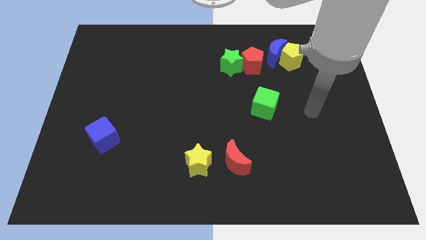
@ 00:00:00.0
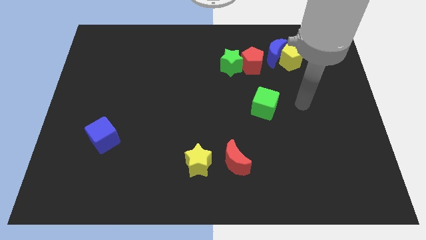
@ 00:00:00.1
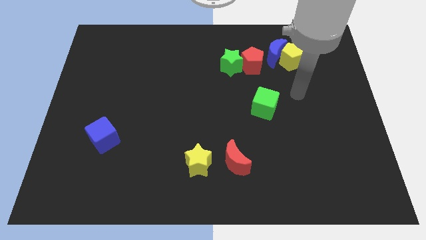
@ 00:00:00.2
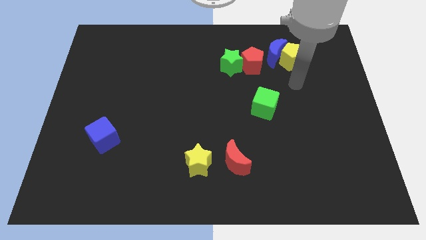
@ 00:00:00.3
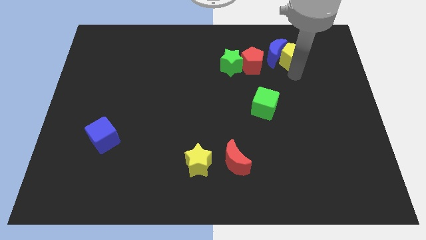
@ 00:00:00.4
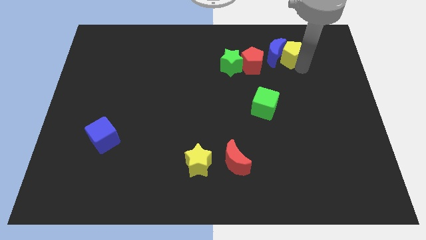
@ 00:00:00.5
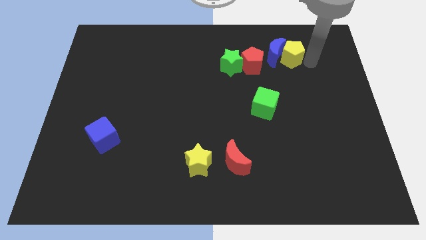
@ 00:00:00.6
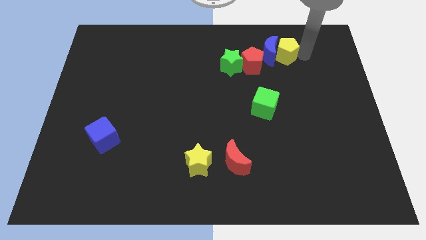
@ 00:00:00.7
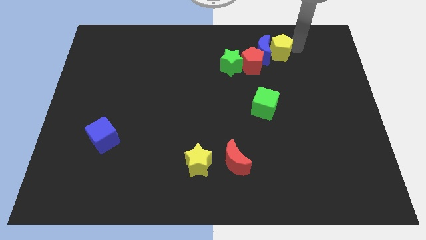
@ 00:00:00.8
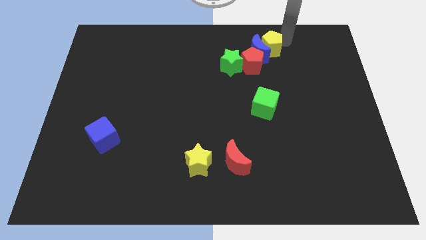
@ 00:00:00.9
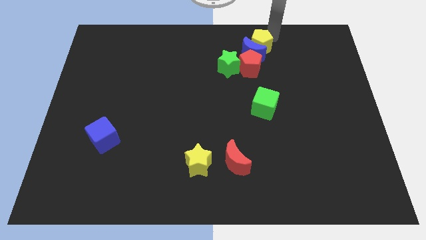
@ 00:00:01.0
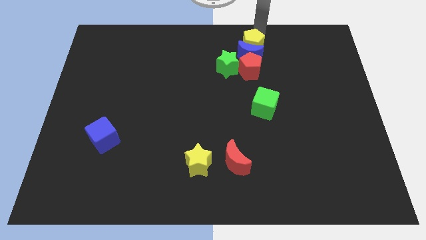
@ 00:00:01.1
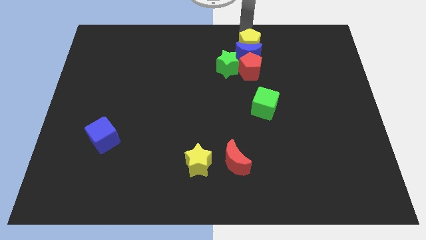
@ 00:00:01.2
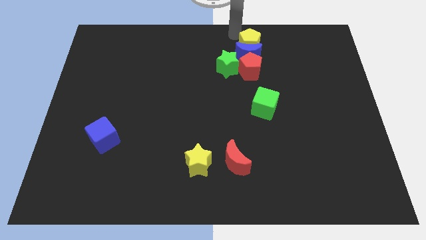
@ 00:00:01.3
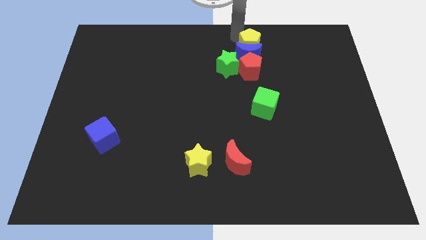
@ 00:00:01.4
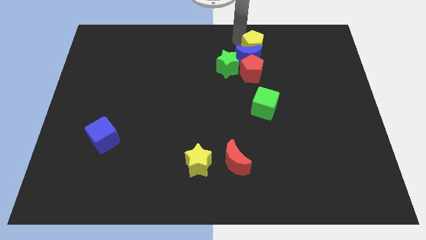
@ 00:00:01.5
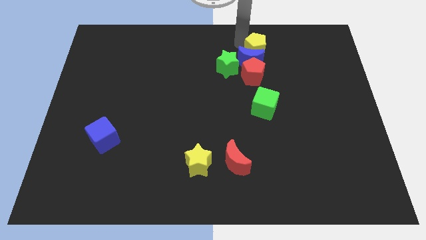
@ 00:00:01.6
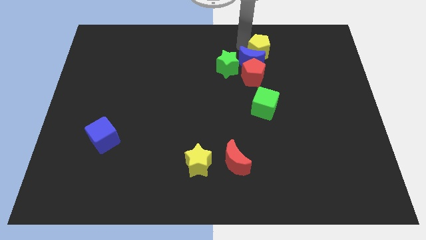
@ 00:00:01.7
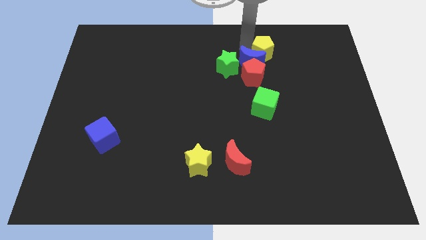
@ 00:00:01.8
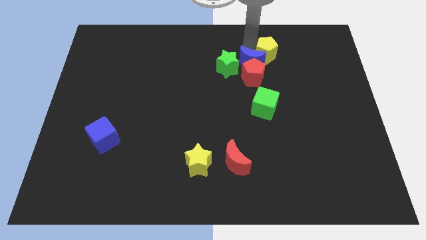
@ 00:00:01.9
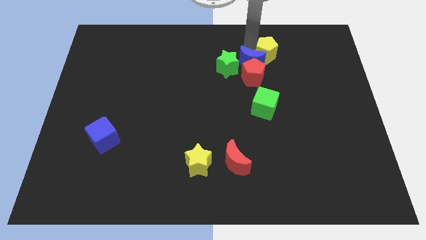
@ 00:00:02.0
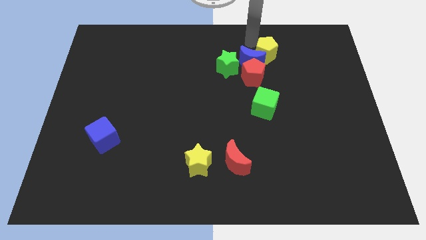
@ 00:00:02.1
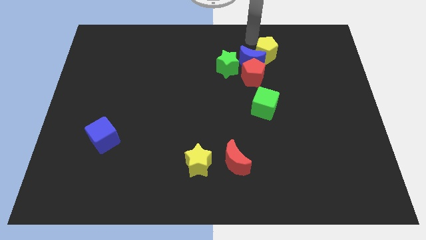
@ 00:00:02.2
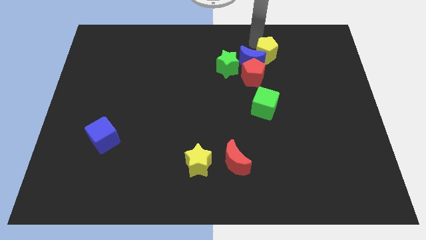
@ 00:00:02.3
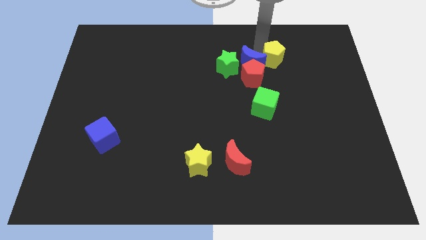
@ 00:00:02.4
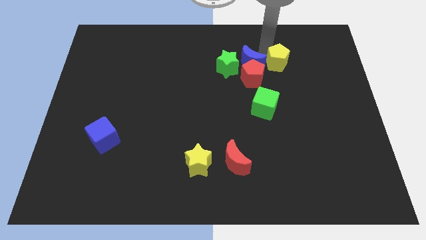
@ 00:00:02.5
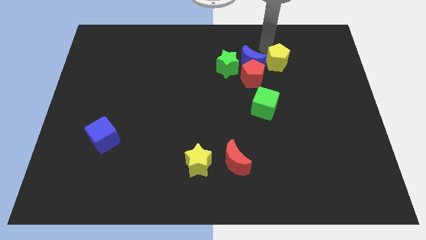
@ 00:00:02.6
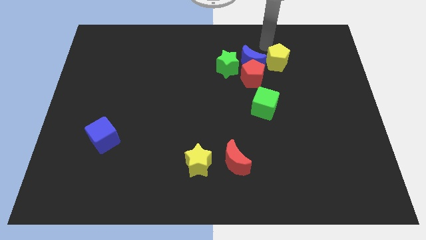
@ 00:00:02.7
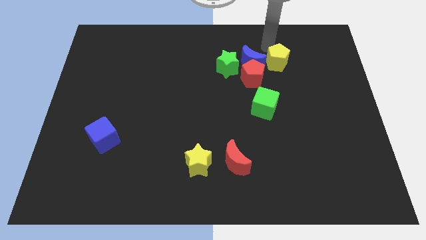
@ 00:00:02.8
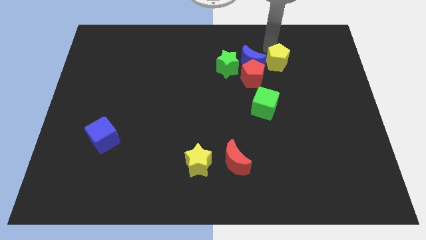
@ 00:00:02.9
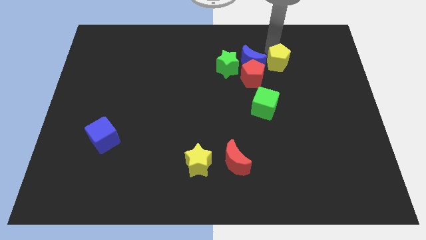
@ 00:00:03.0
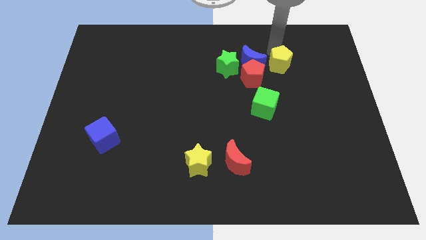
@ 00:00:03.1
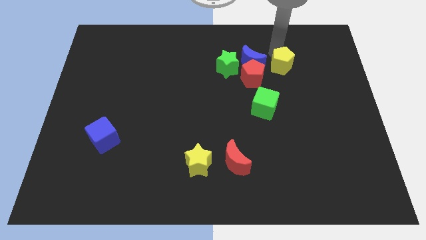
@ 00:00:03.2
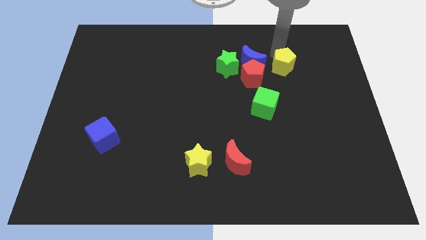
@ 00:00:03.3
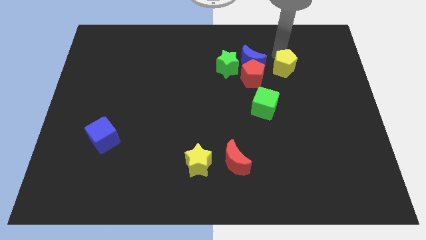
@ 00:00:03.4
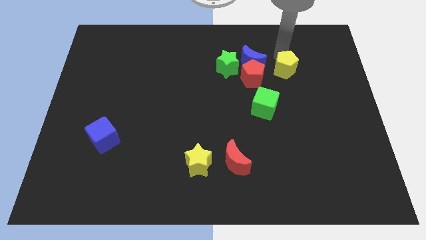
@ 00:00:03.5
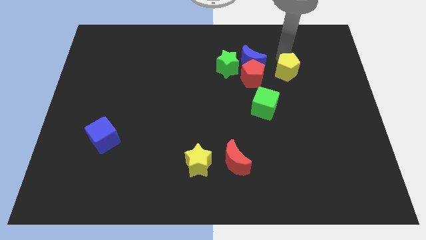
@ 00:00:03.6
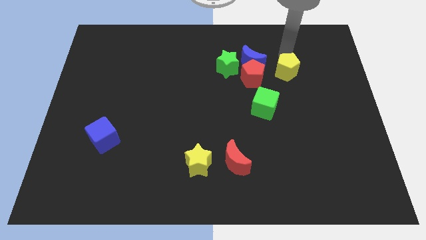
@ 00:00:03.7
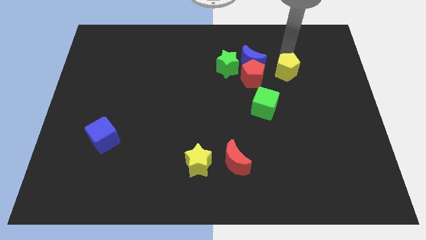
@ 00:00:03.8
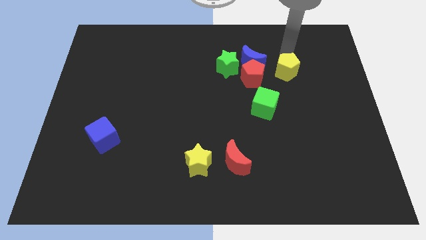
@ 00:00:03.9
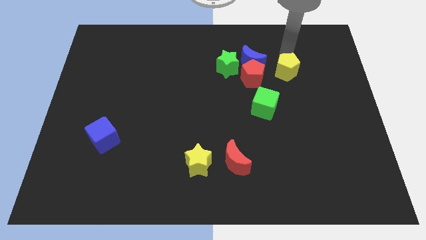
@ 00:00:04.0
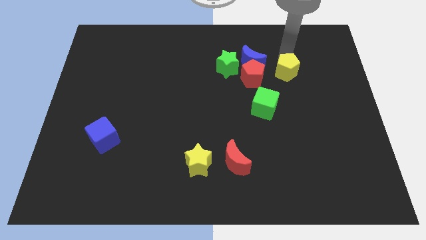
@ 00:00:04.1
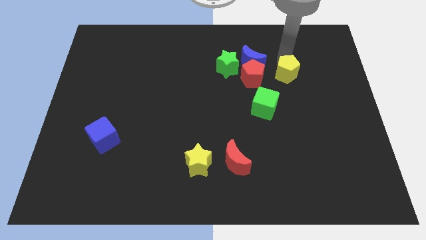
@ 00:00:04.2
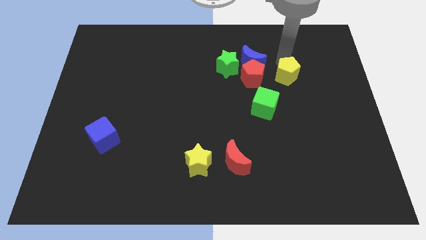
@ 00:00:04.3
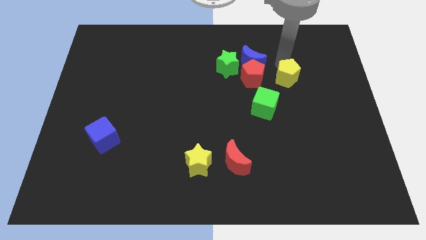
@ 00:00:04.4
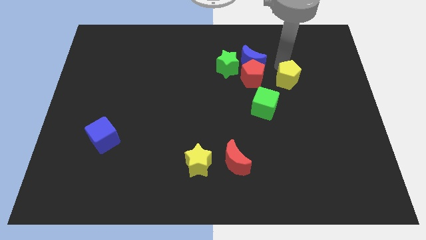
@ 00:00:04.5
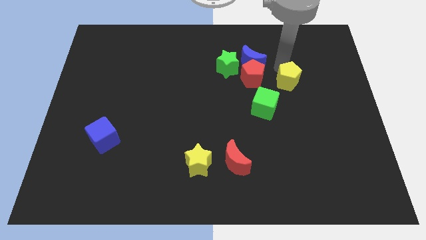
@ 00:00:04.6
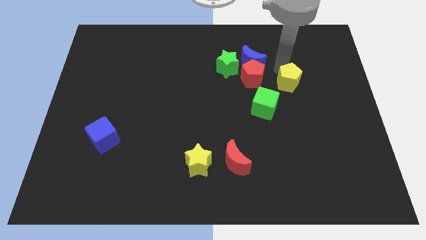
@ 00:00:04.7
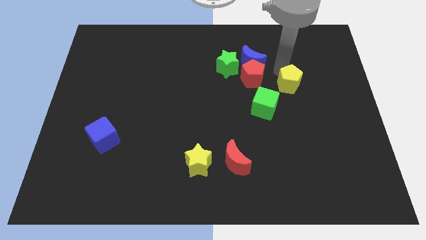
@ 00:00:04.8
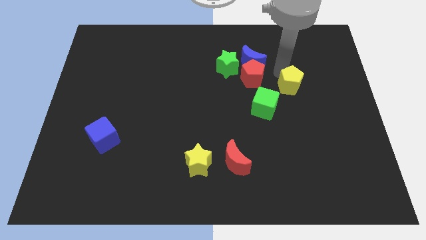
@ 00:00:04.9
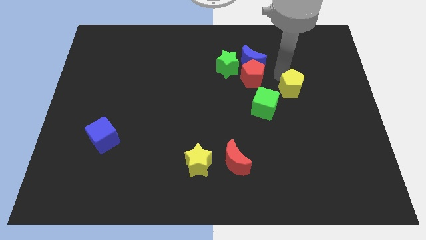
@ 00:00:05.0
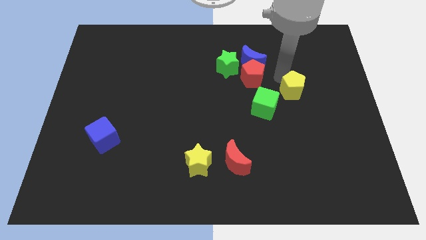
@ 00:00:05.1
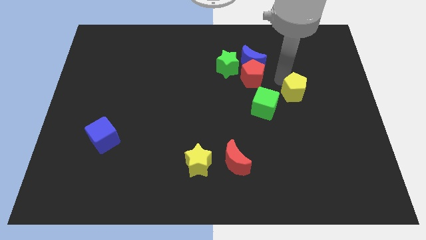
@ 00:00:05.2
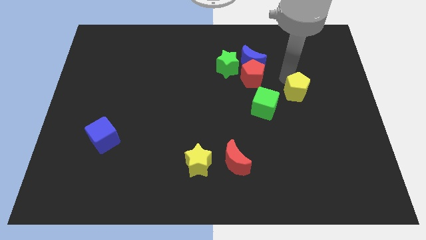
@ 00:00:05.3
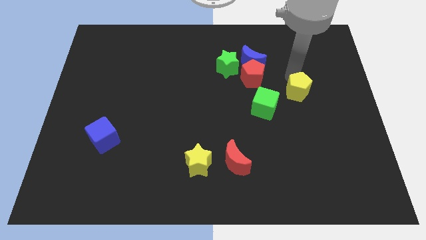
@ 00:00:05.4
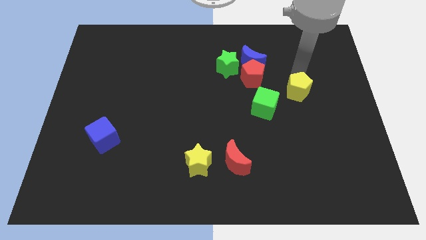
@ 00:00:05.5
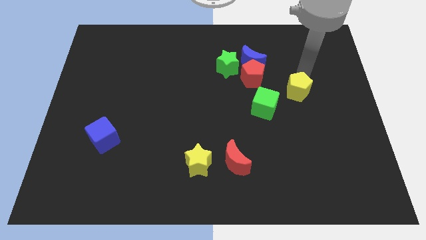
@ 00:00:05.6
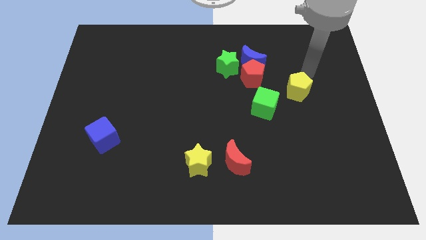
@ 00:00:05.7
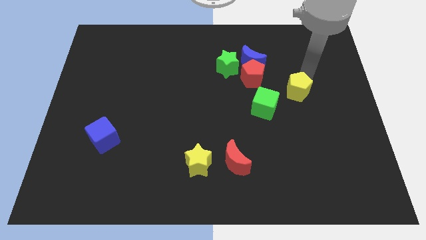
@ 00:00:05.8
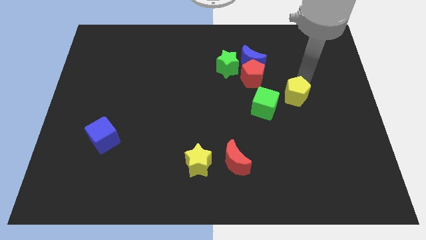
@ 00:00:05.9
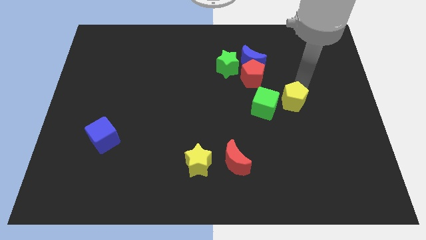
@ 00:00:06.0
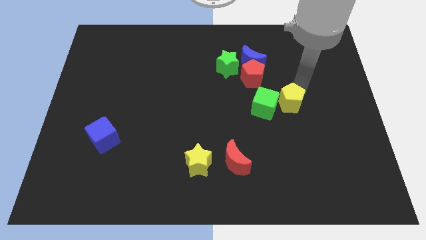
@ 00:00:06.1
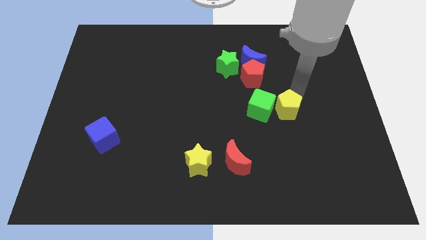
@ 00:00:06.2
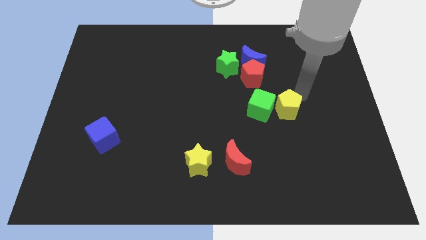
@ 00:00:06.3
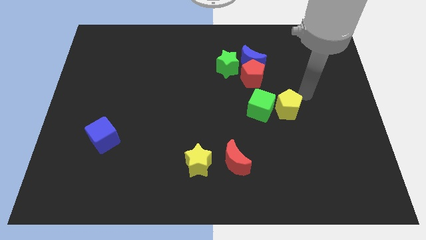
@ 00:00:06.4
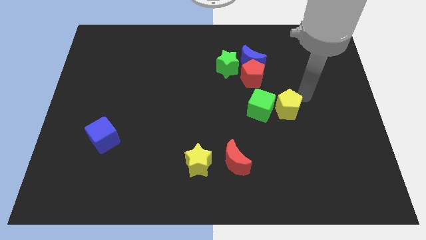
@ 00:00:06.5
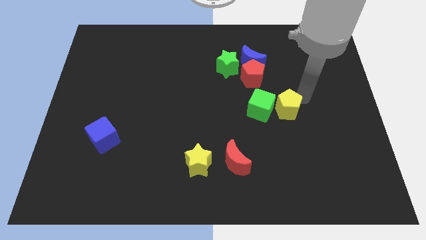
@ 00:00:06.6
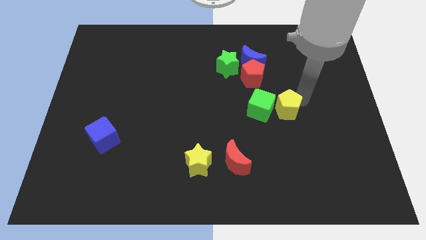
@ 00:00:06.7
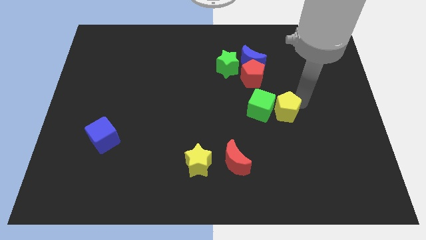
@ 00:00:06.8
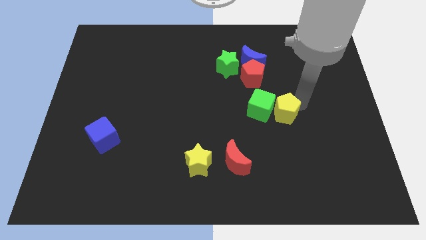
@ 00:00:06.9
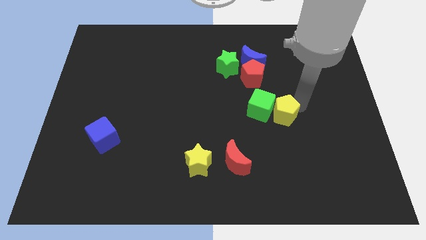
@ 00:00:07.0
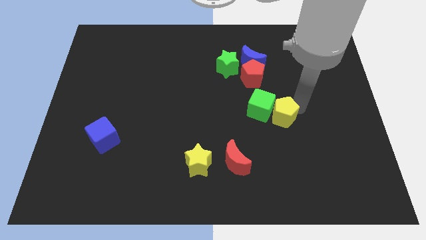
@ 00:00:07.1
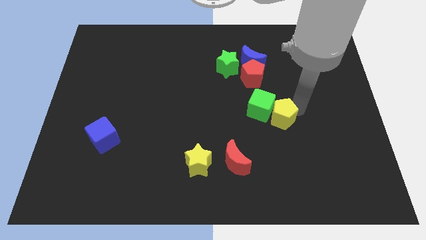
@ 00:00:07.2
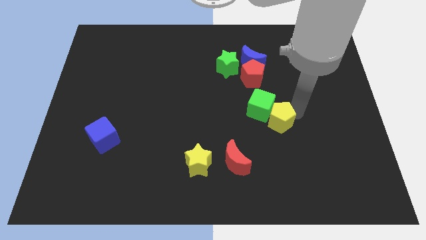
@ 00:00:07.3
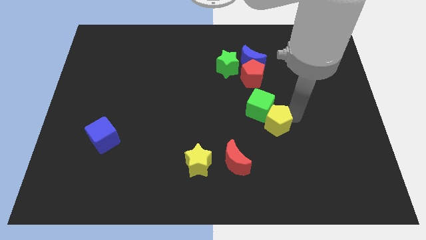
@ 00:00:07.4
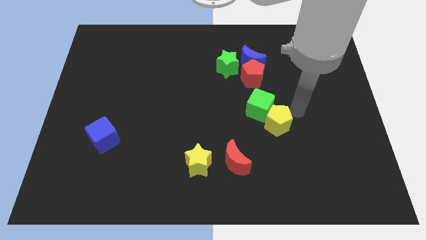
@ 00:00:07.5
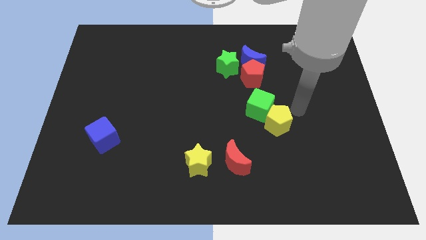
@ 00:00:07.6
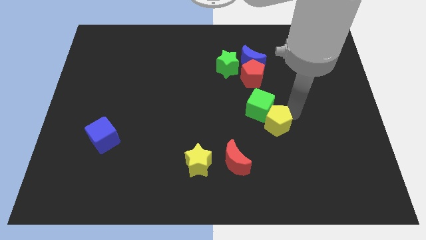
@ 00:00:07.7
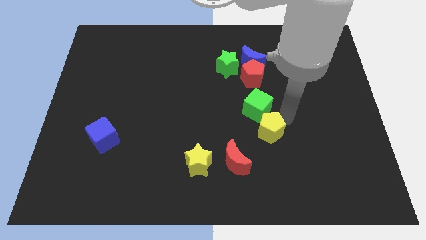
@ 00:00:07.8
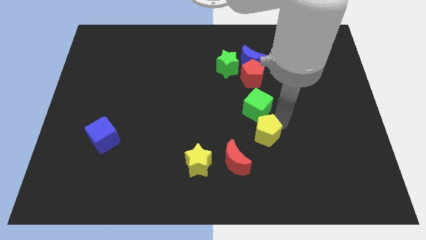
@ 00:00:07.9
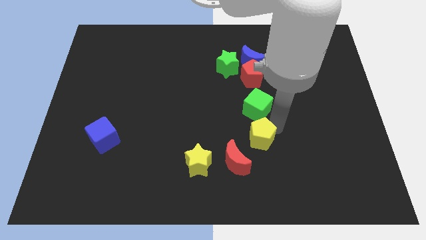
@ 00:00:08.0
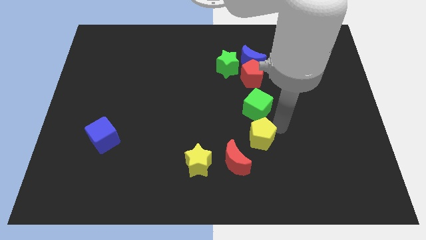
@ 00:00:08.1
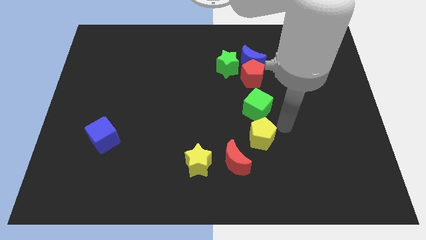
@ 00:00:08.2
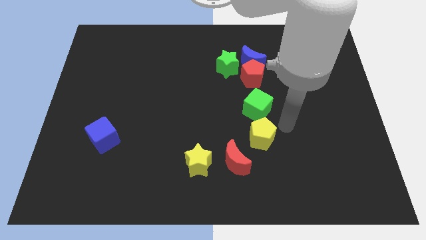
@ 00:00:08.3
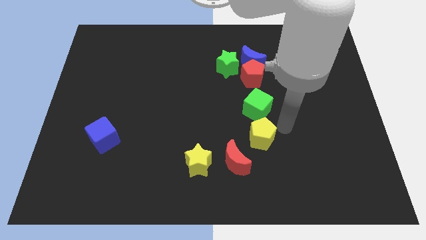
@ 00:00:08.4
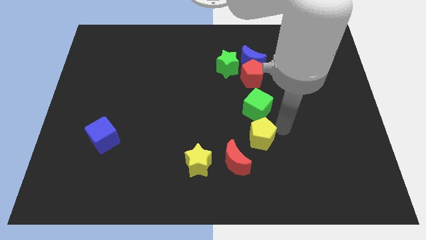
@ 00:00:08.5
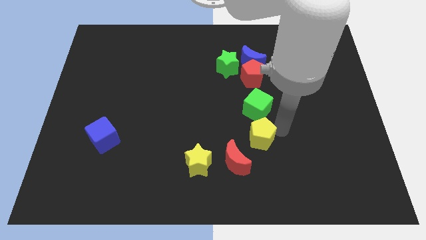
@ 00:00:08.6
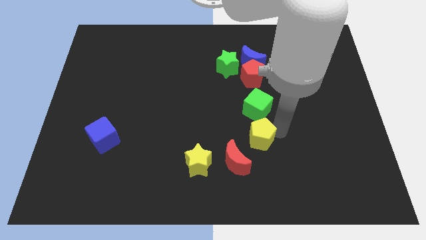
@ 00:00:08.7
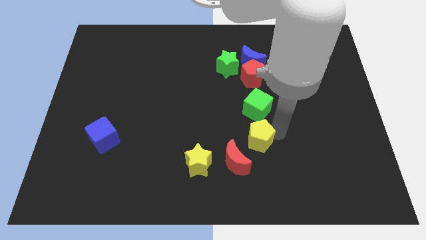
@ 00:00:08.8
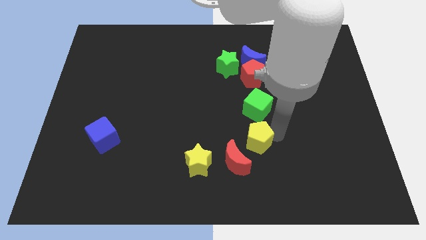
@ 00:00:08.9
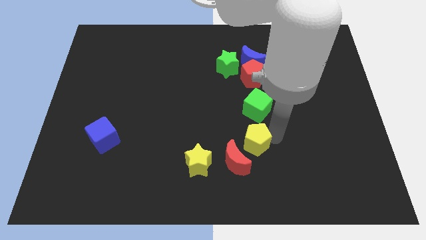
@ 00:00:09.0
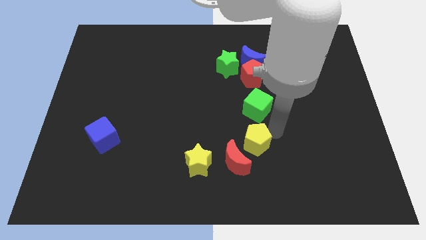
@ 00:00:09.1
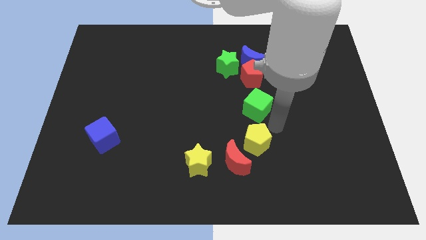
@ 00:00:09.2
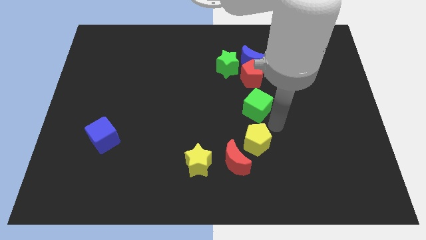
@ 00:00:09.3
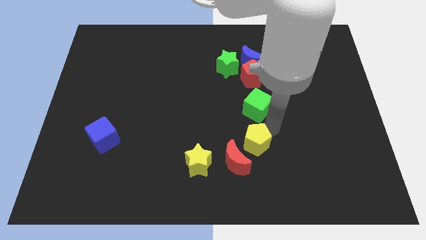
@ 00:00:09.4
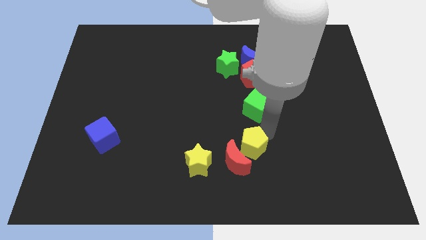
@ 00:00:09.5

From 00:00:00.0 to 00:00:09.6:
slide the yellow pentagon close to the red moon
